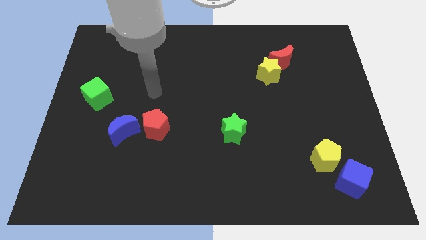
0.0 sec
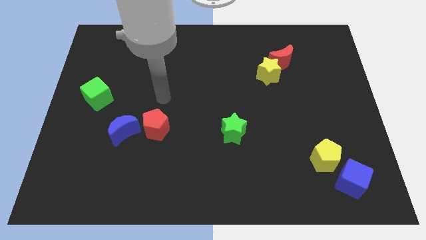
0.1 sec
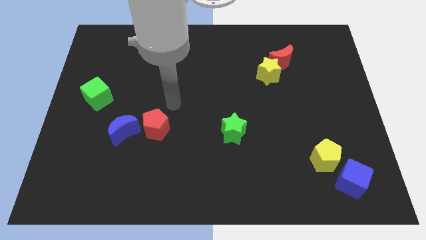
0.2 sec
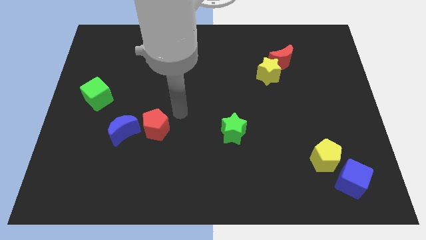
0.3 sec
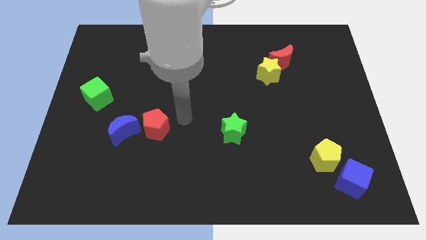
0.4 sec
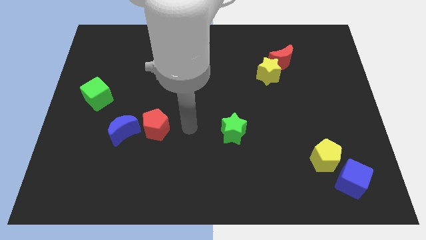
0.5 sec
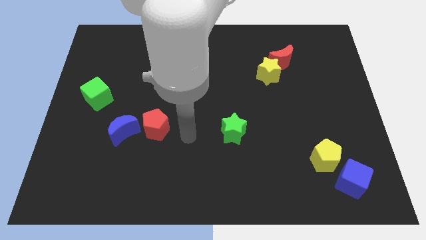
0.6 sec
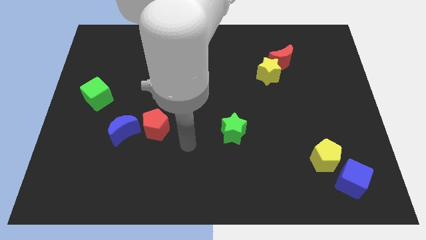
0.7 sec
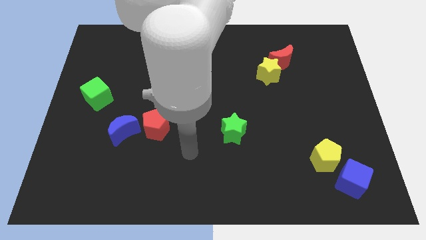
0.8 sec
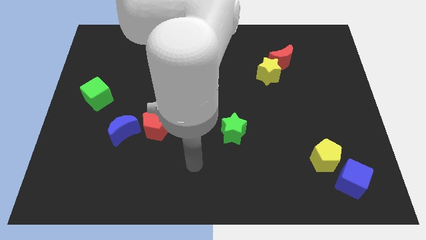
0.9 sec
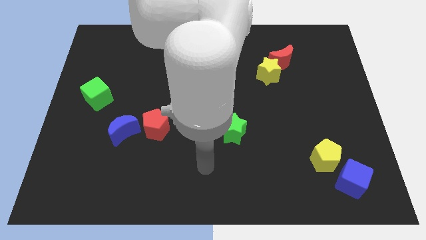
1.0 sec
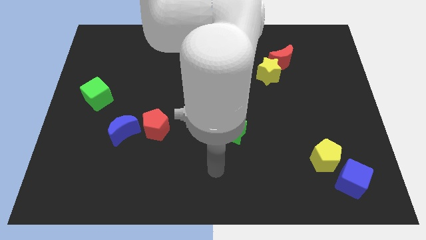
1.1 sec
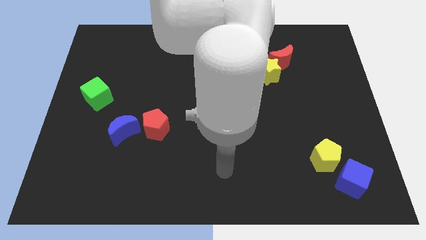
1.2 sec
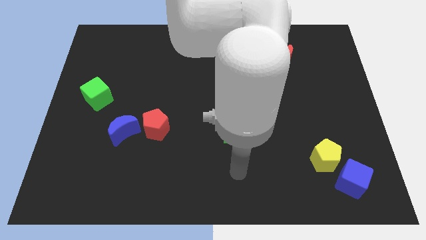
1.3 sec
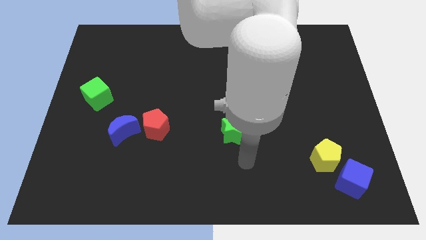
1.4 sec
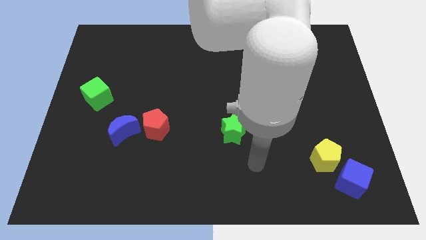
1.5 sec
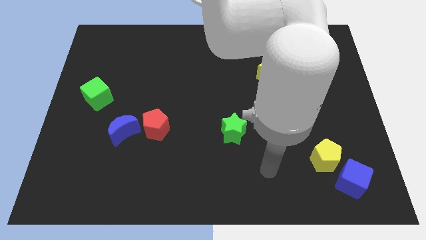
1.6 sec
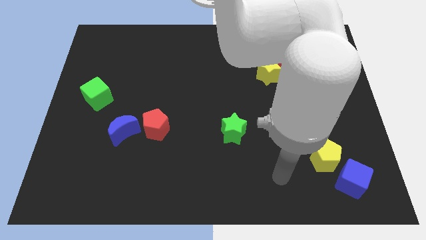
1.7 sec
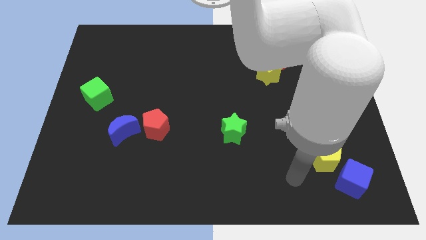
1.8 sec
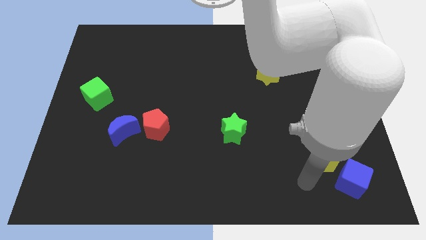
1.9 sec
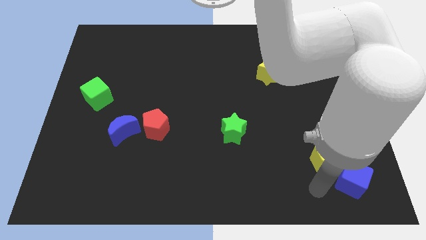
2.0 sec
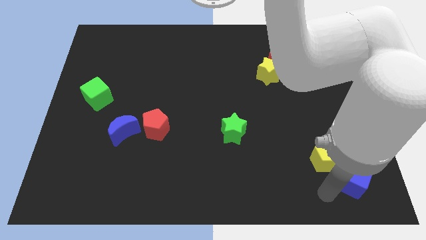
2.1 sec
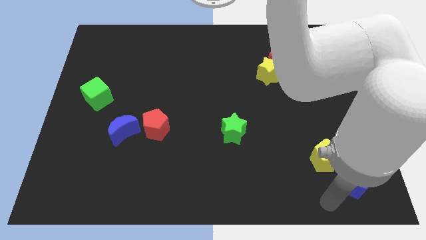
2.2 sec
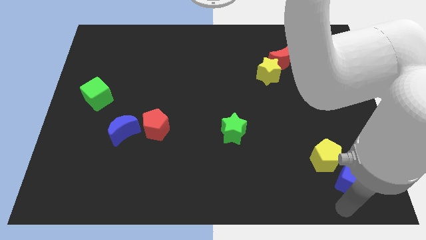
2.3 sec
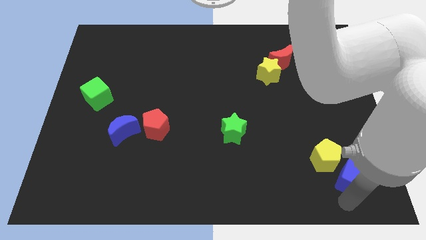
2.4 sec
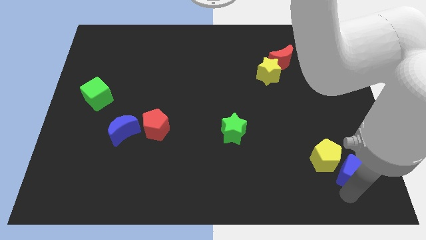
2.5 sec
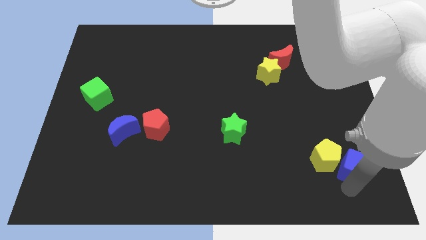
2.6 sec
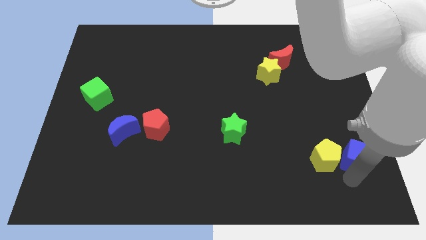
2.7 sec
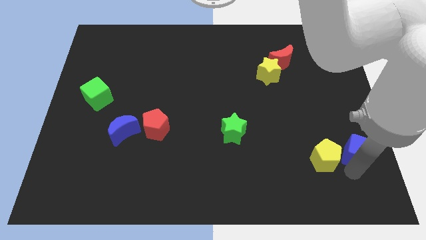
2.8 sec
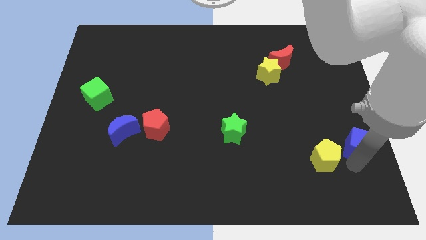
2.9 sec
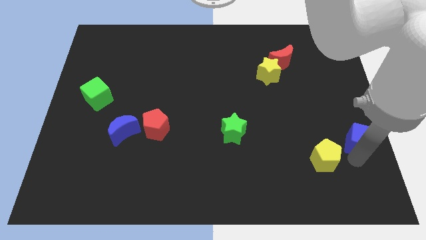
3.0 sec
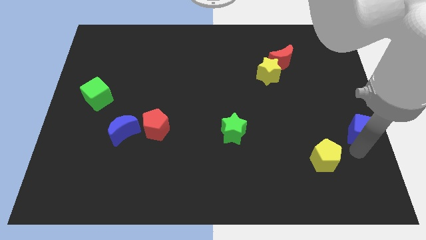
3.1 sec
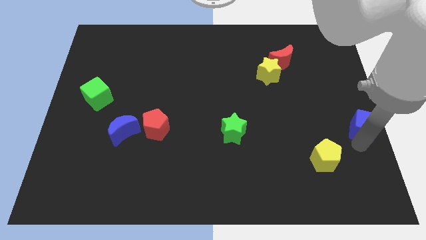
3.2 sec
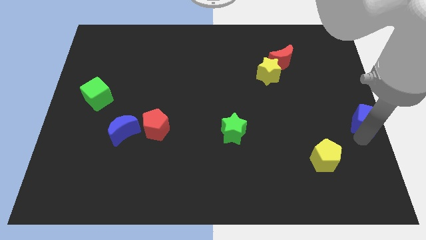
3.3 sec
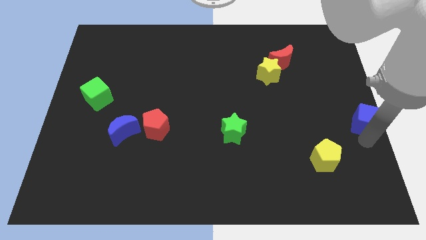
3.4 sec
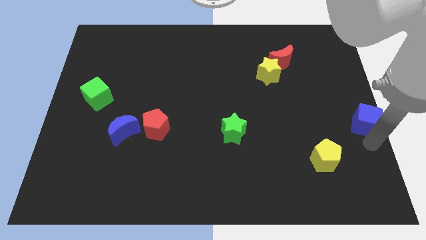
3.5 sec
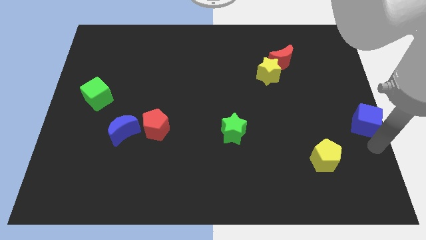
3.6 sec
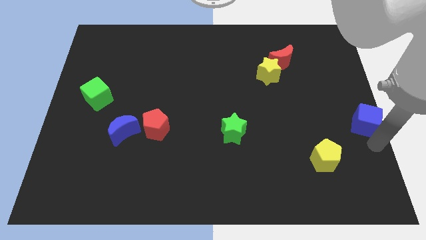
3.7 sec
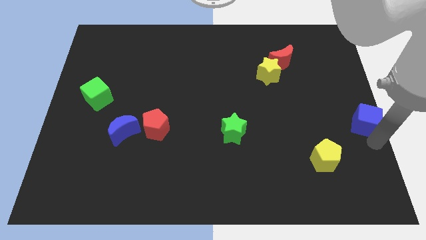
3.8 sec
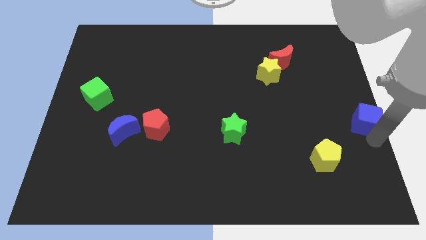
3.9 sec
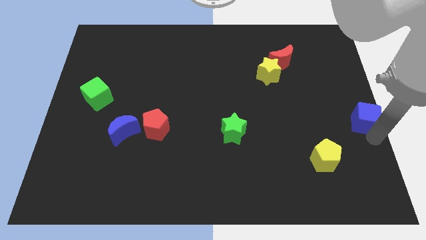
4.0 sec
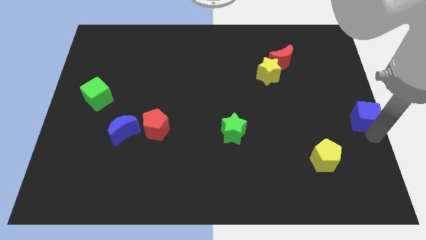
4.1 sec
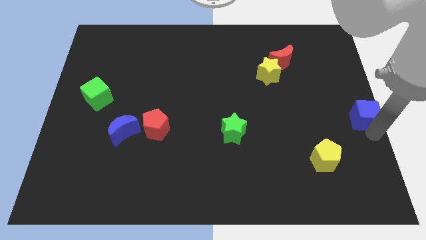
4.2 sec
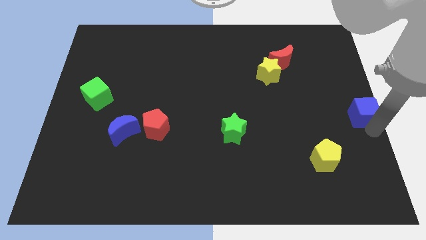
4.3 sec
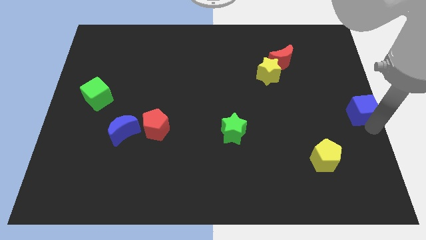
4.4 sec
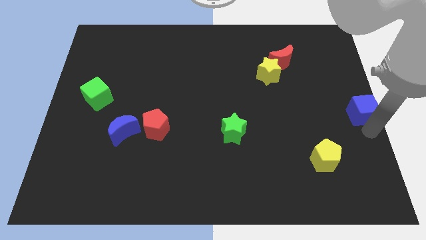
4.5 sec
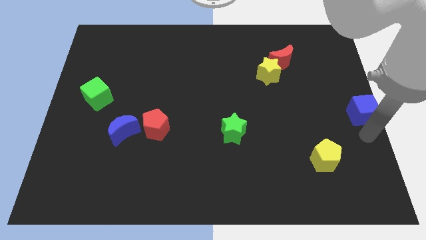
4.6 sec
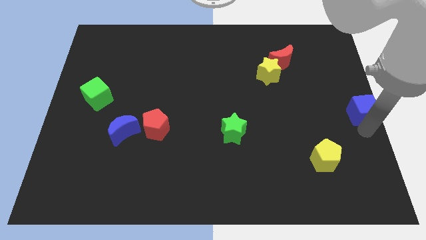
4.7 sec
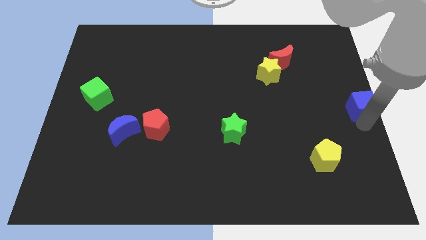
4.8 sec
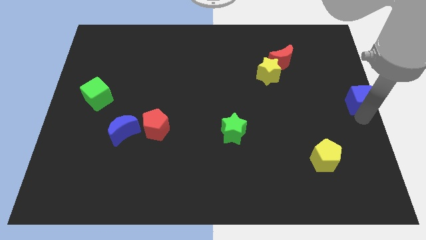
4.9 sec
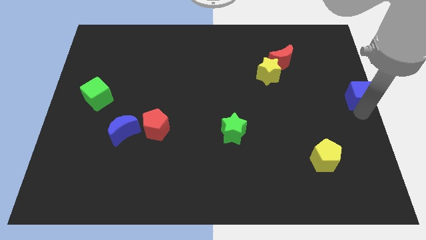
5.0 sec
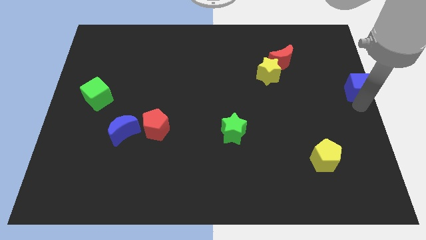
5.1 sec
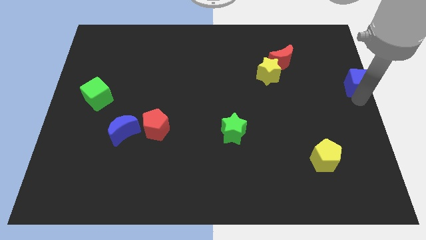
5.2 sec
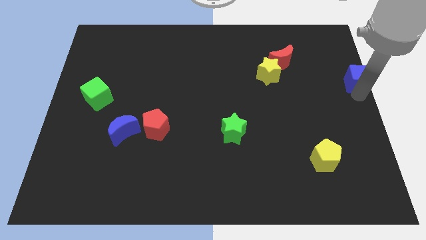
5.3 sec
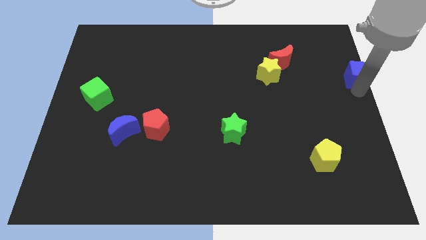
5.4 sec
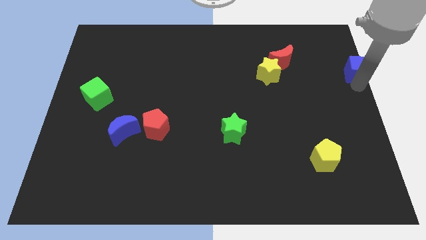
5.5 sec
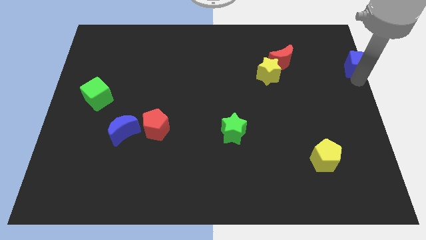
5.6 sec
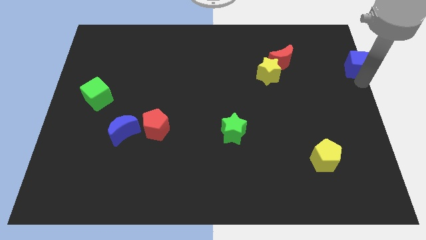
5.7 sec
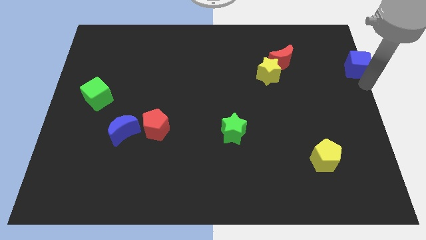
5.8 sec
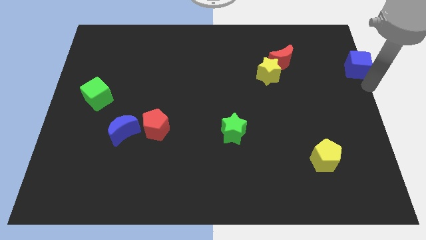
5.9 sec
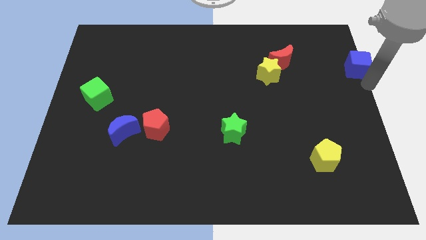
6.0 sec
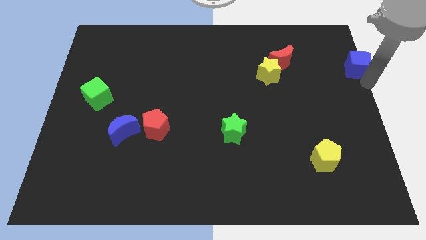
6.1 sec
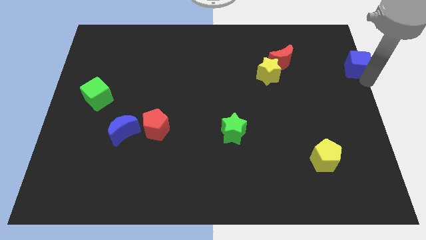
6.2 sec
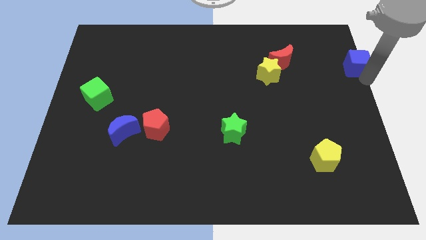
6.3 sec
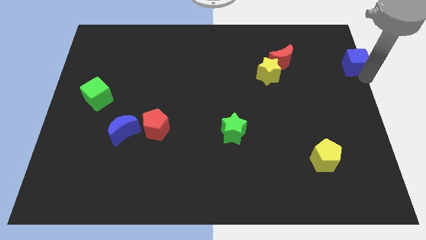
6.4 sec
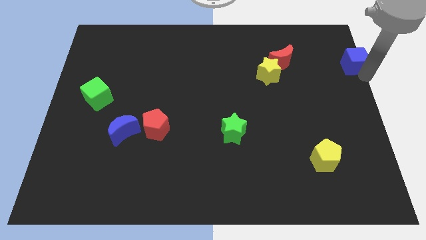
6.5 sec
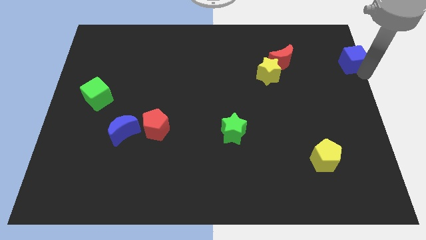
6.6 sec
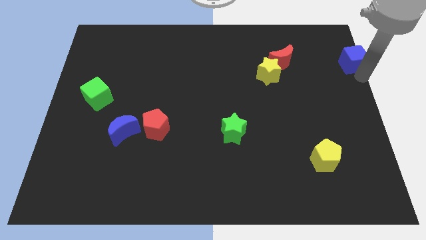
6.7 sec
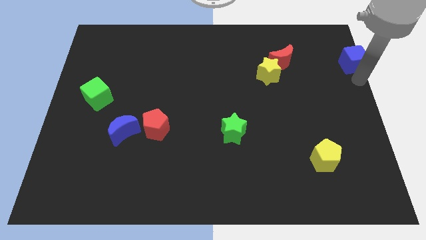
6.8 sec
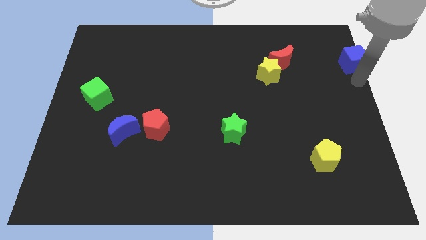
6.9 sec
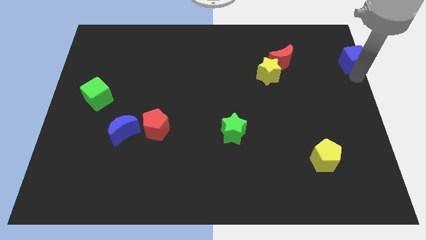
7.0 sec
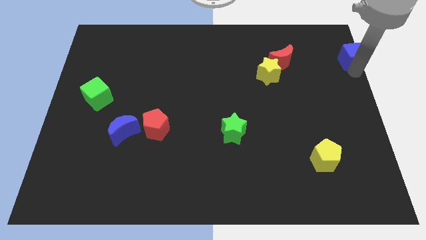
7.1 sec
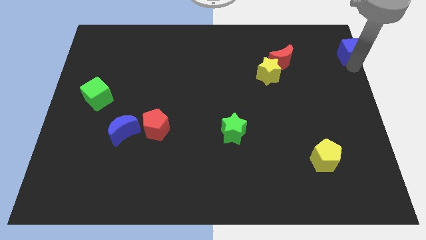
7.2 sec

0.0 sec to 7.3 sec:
move the blue cube to the top right corner
